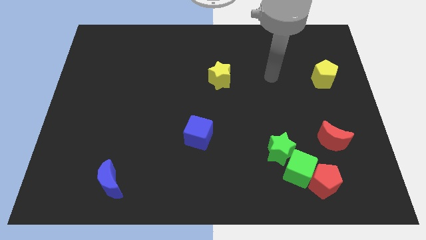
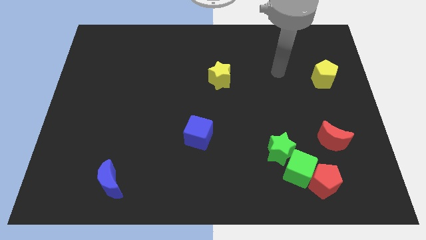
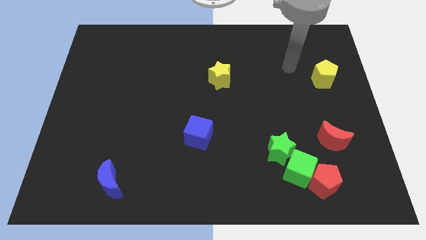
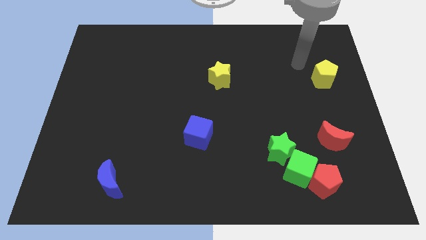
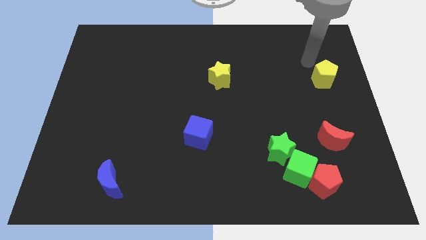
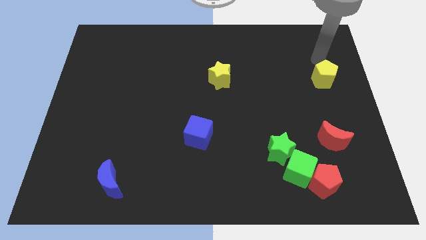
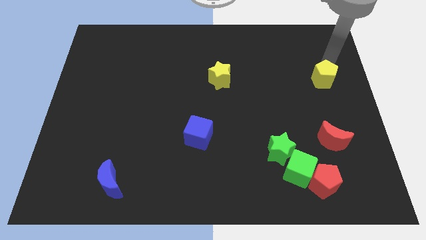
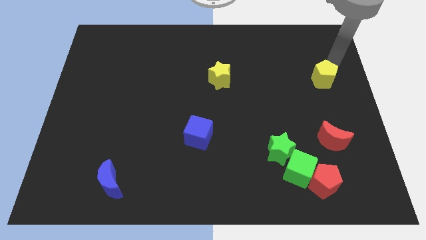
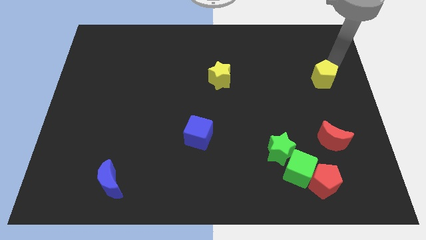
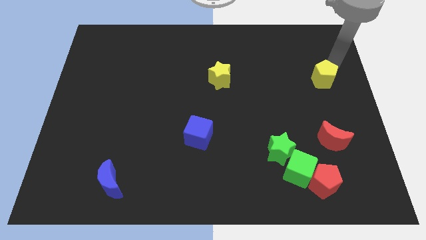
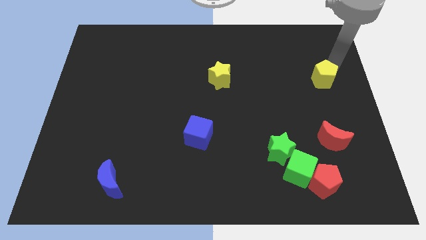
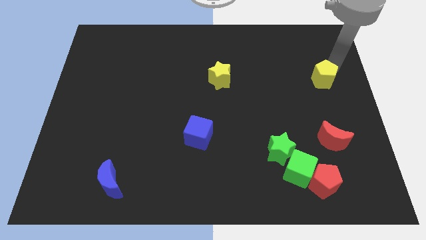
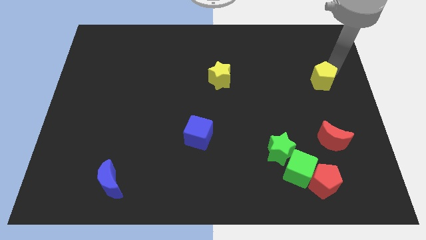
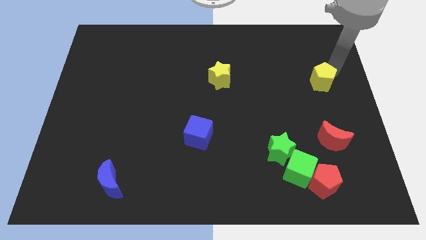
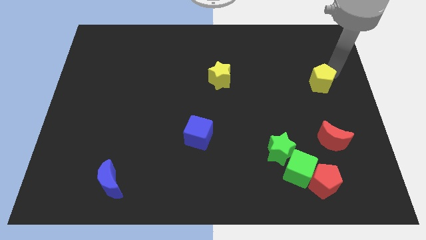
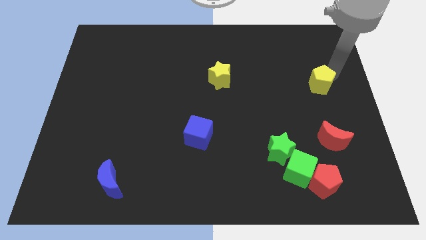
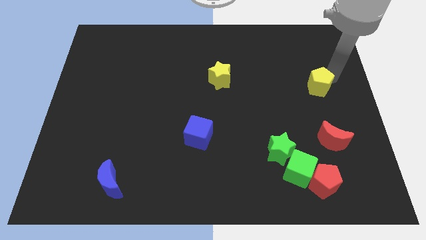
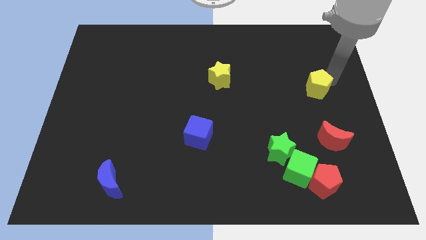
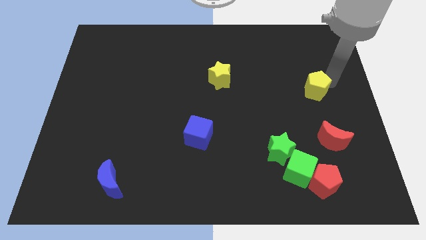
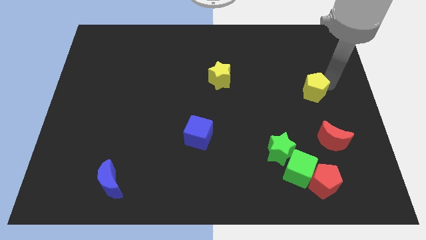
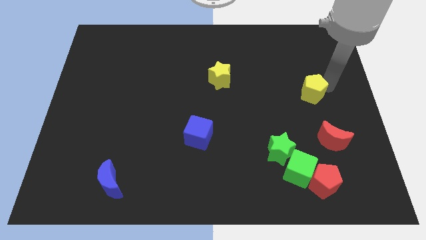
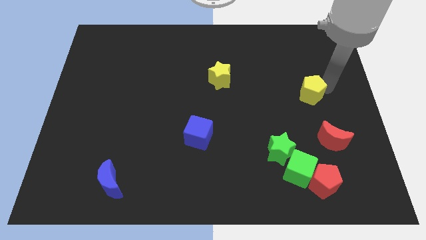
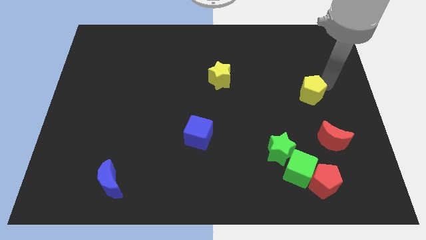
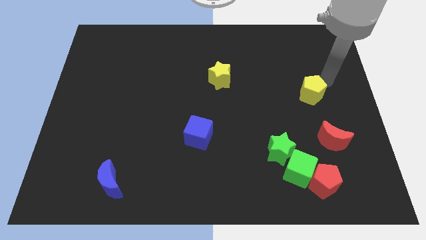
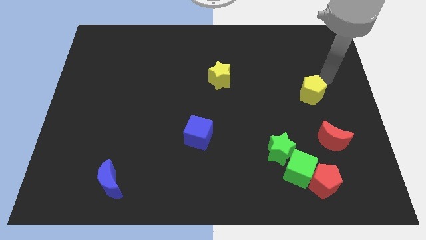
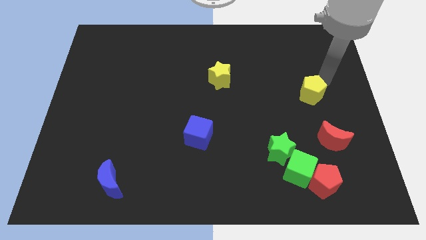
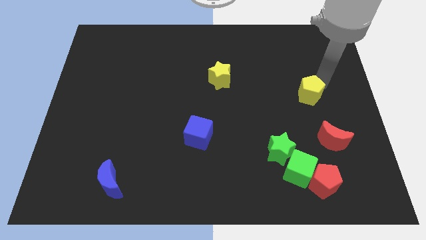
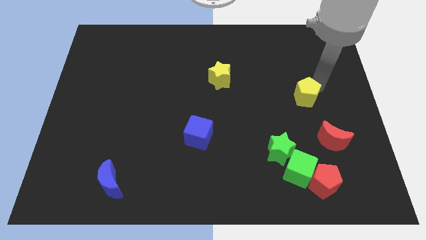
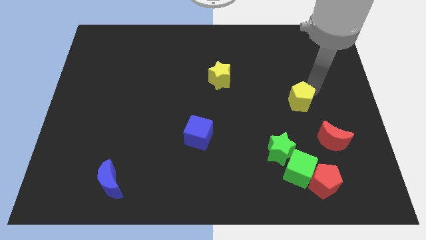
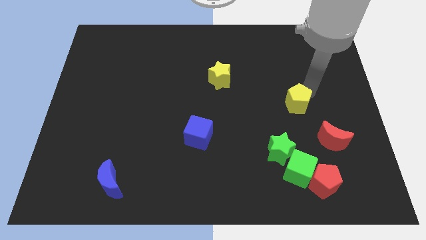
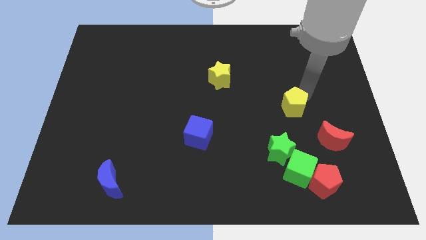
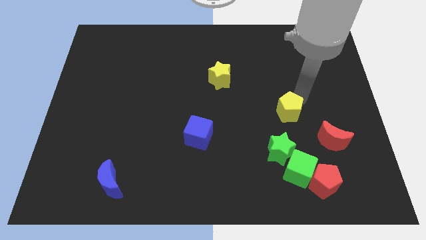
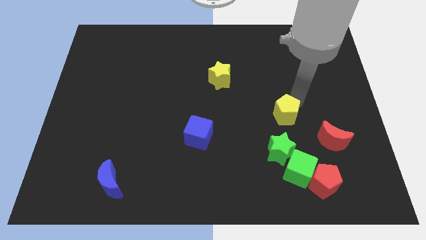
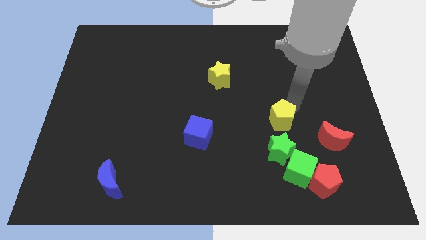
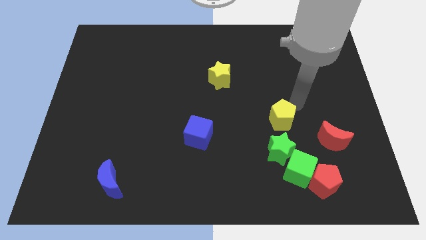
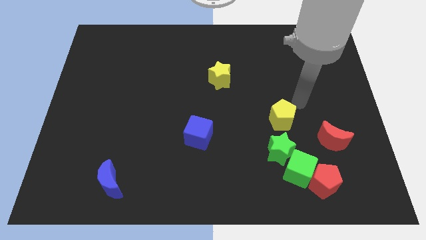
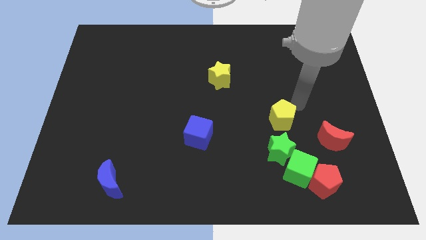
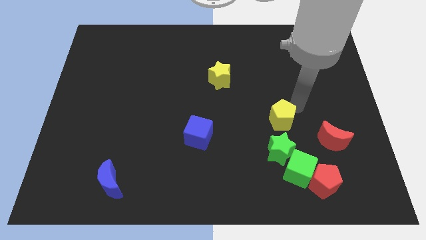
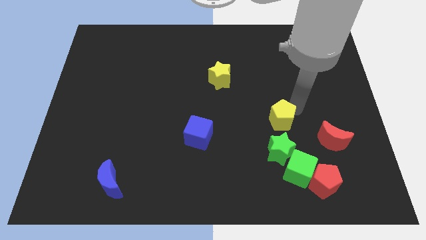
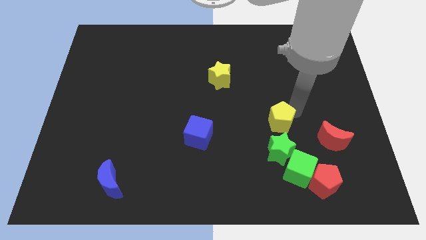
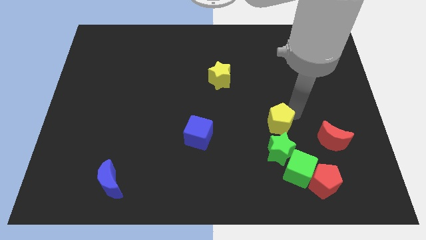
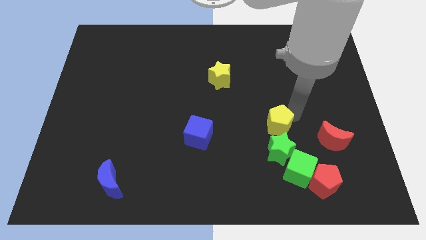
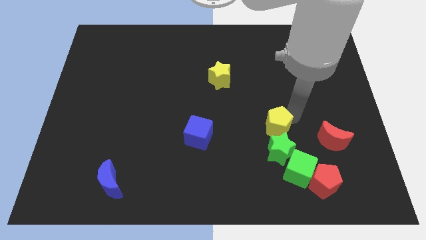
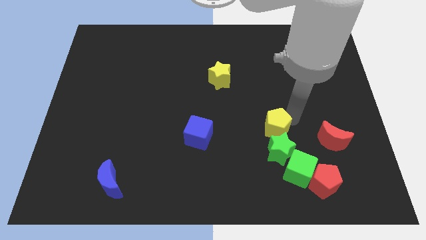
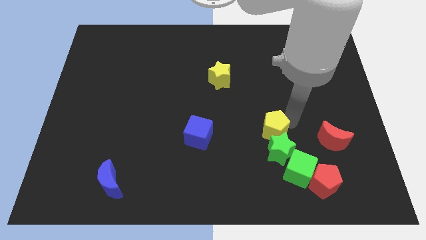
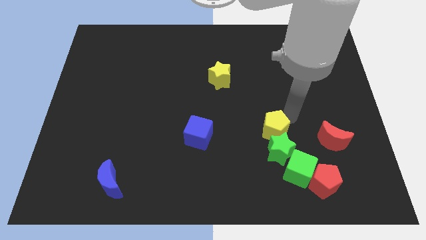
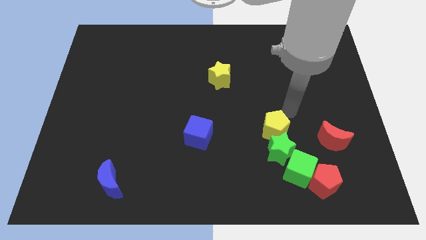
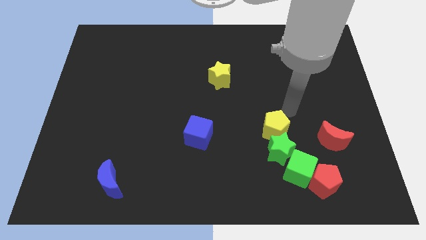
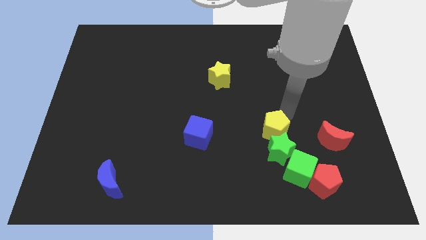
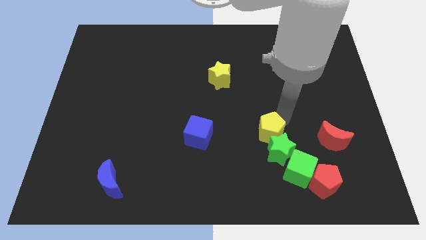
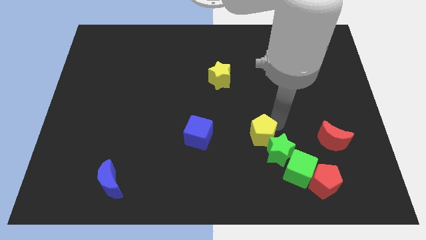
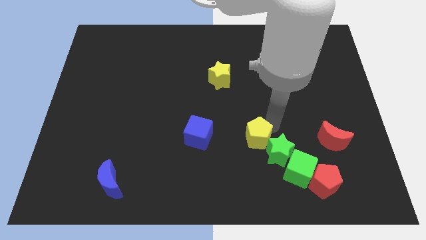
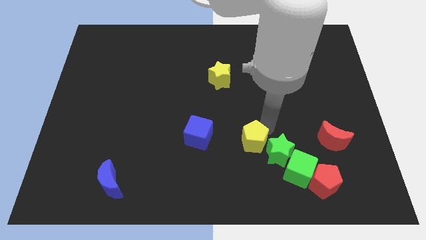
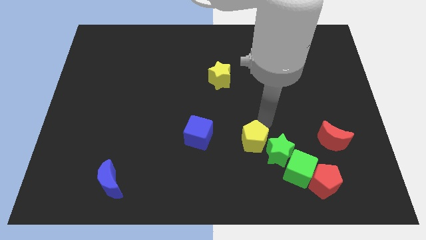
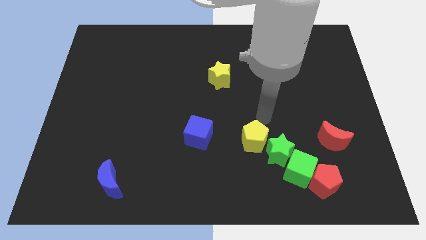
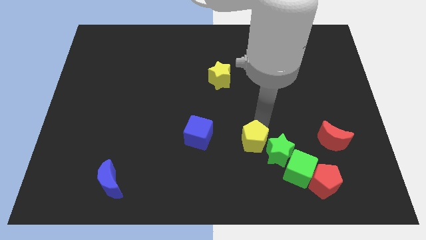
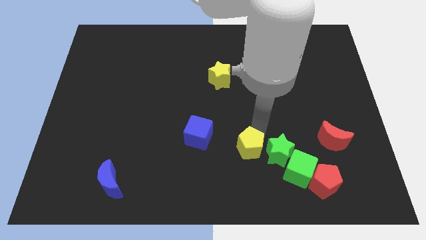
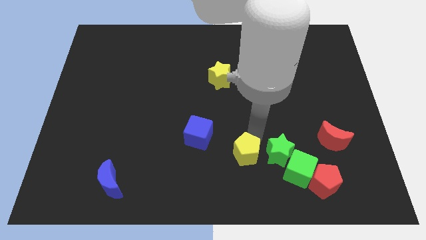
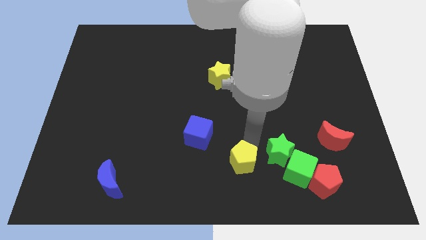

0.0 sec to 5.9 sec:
move the yellow pentagon to the bottom
